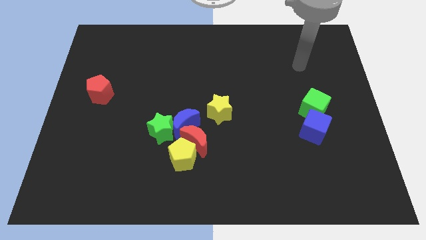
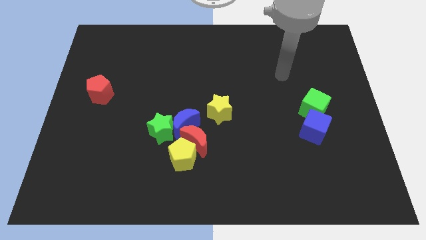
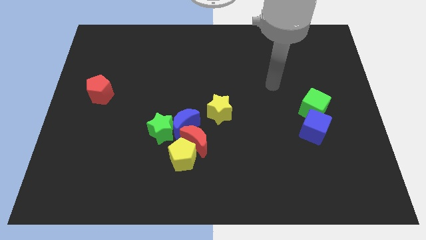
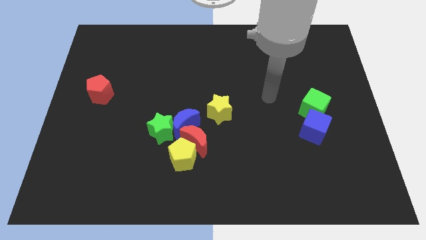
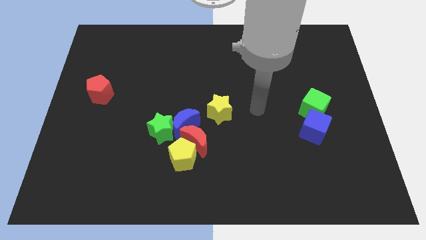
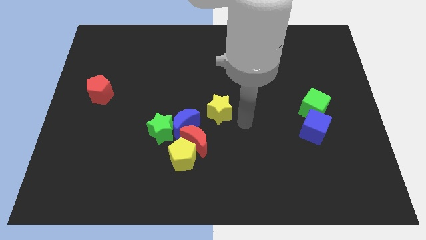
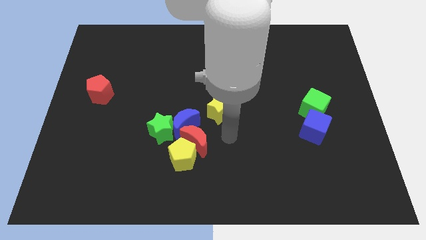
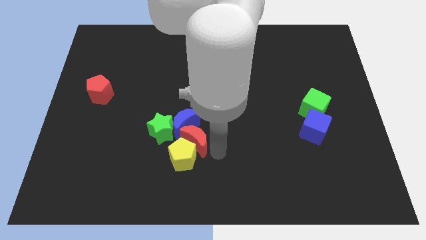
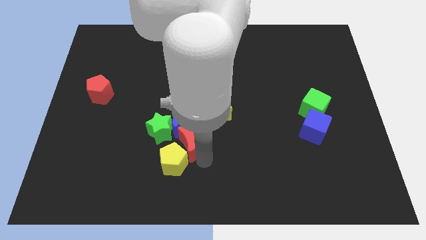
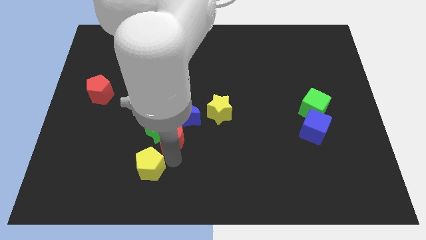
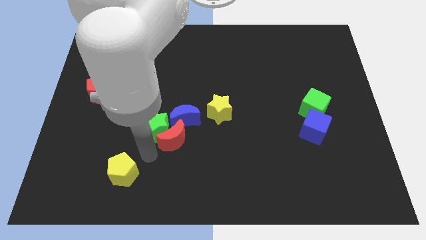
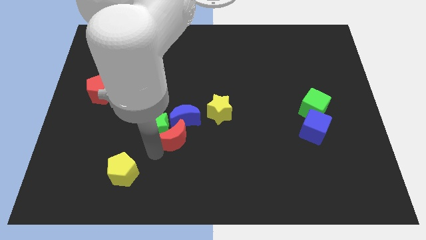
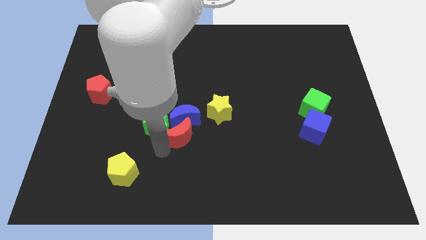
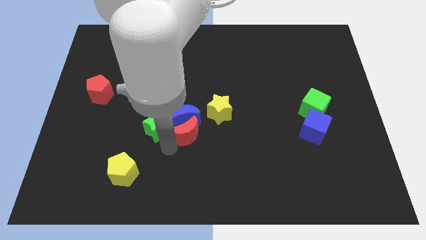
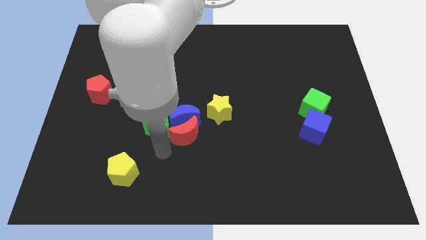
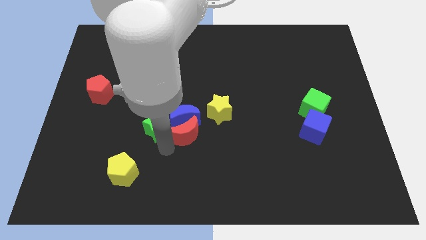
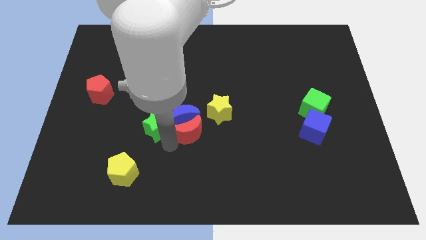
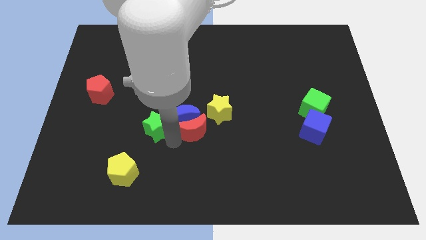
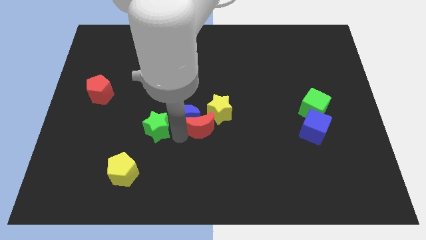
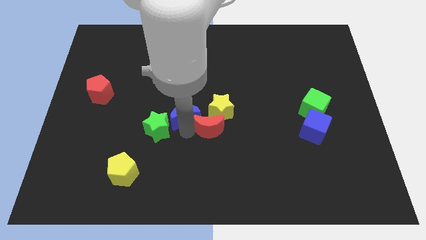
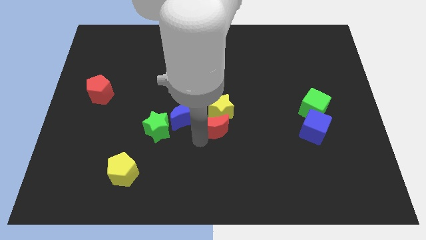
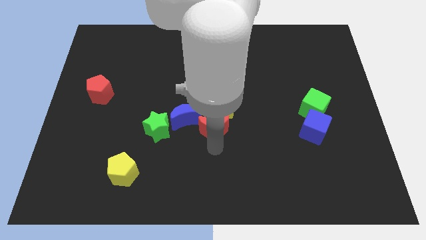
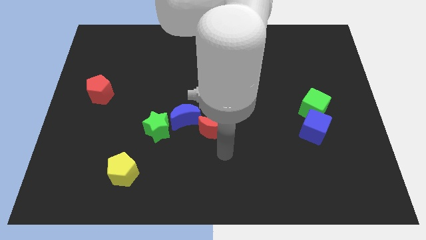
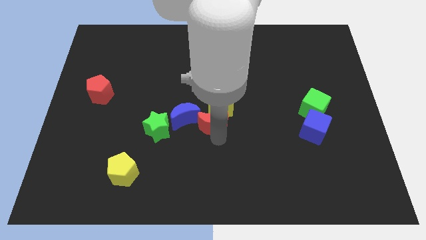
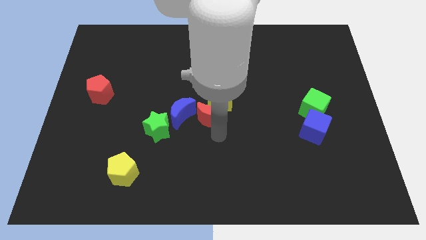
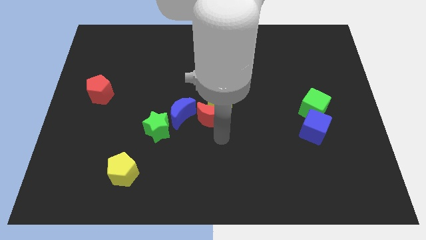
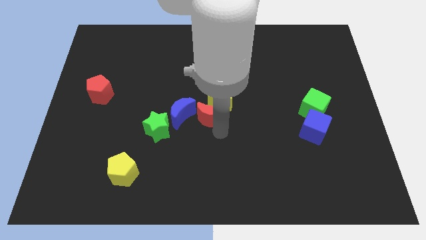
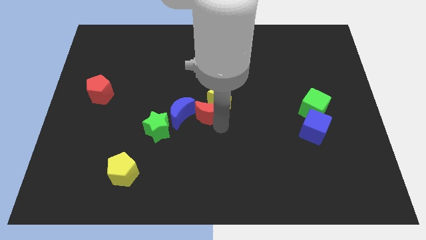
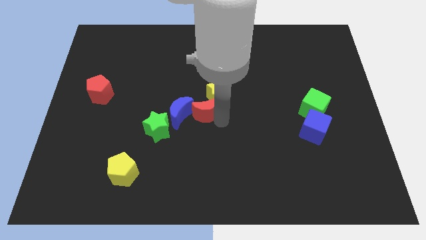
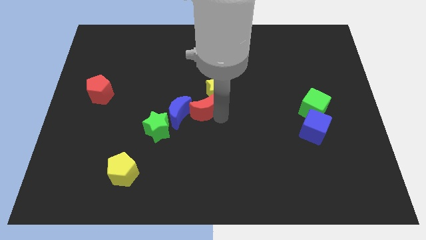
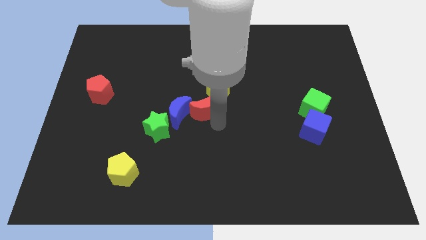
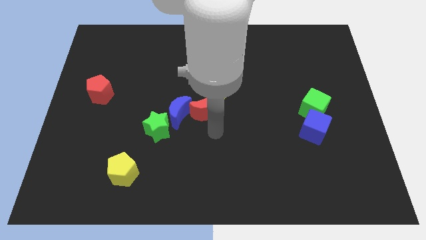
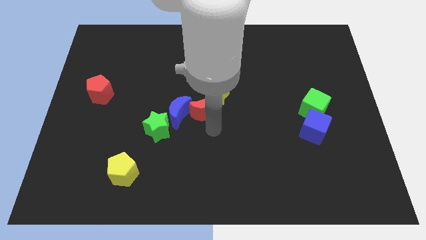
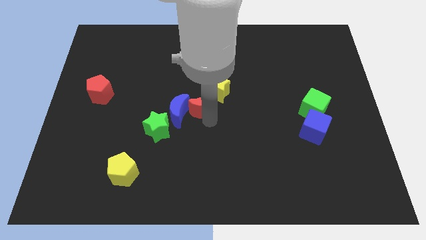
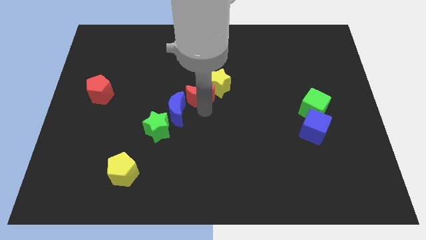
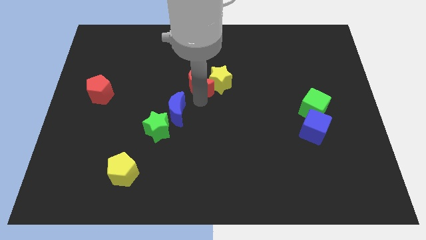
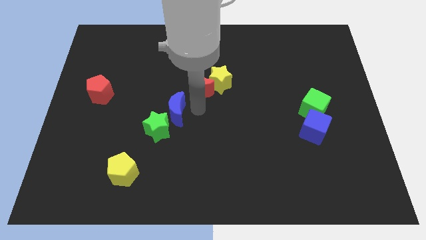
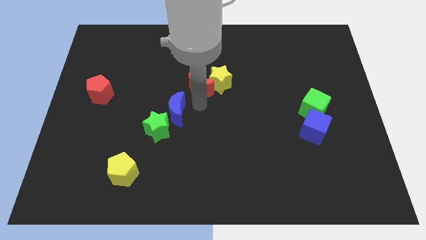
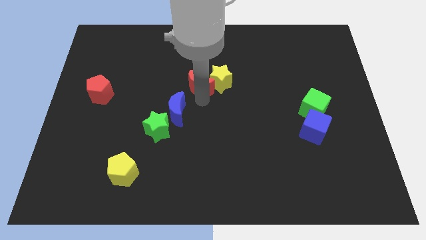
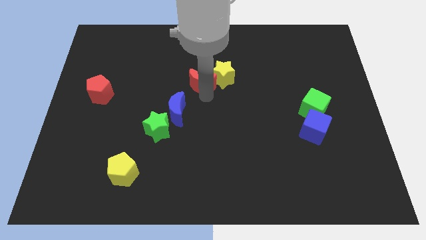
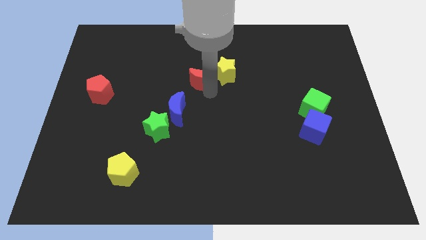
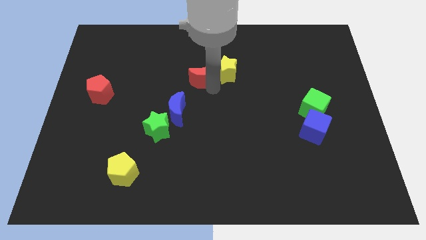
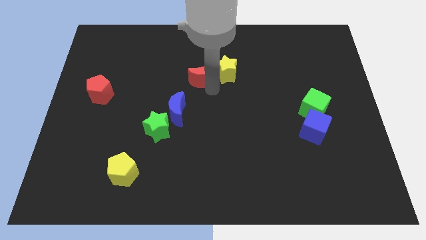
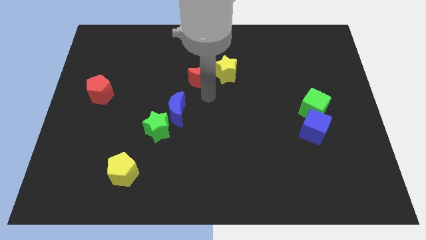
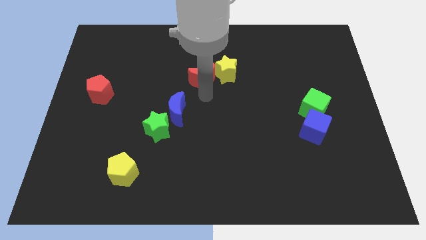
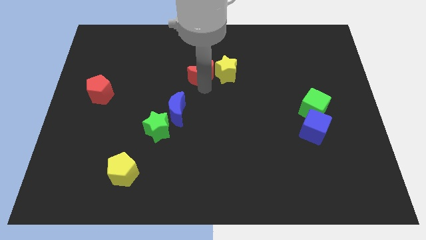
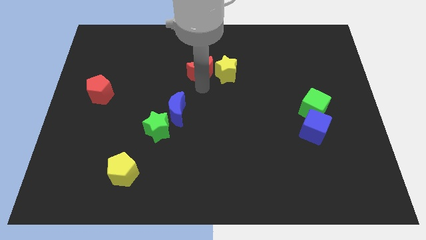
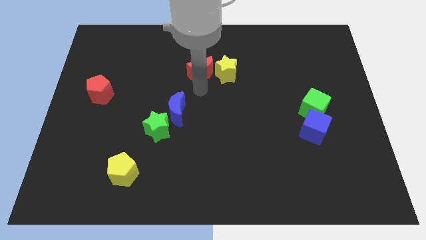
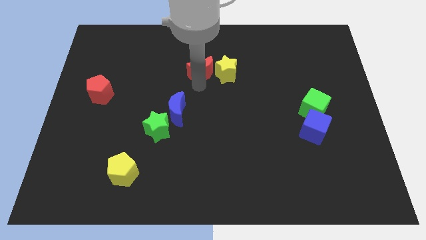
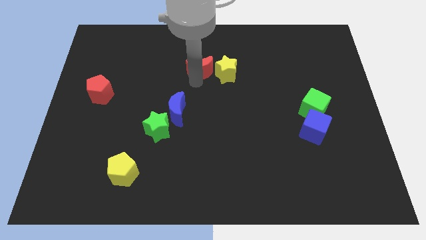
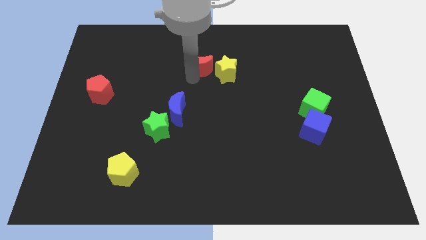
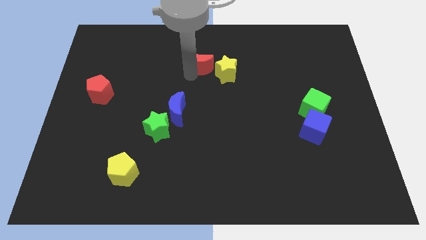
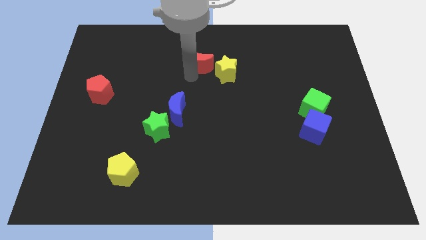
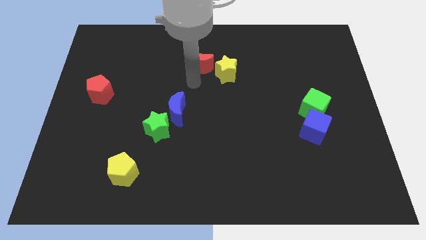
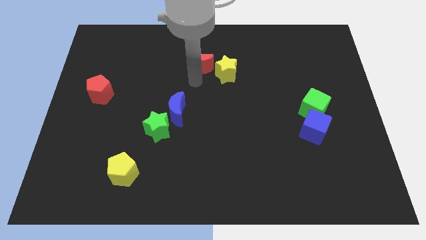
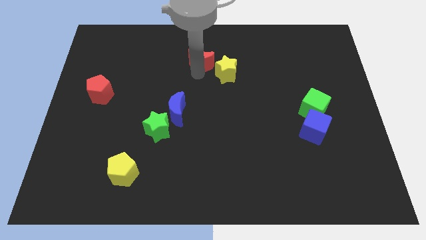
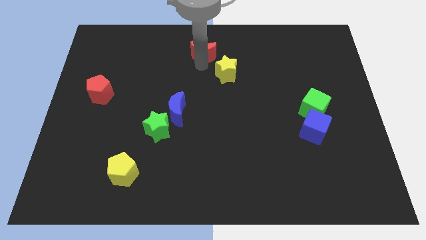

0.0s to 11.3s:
push the red moon to the towards your base
